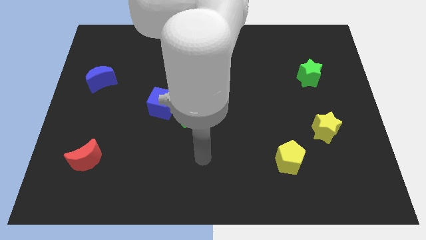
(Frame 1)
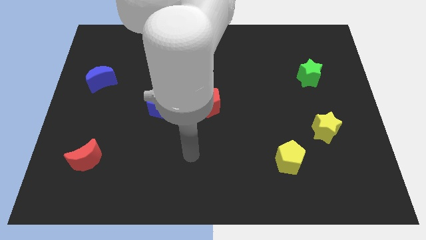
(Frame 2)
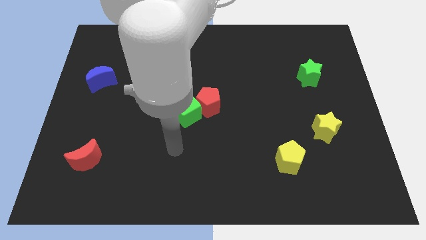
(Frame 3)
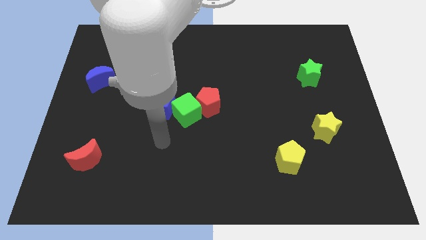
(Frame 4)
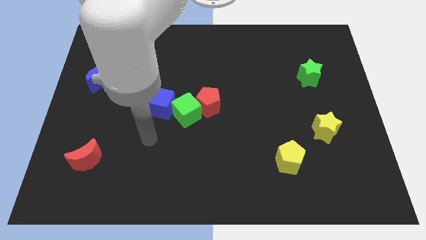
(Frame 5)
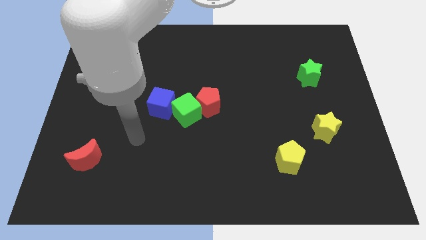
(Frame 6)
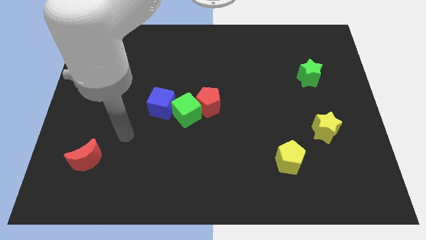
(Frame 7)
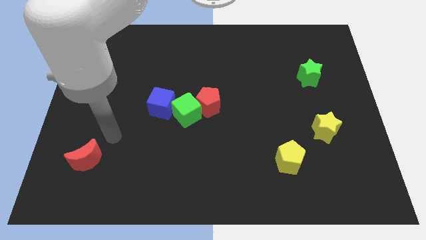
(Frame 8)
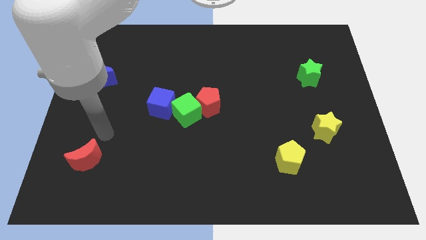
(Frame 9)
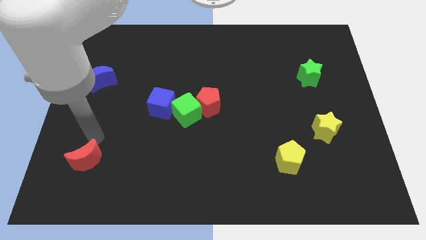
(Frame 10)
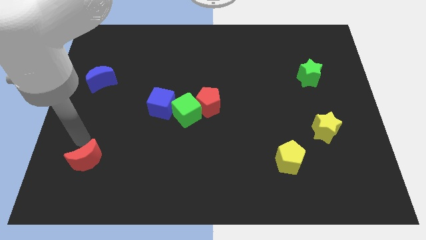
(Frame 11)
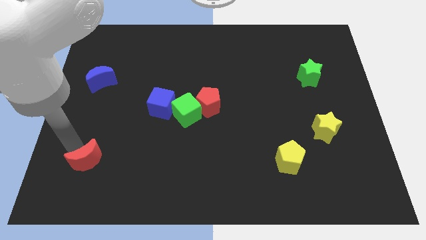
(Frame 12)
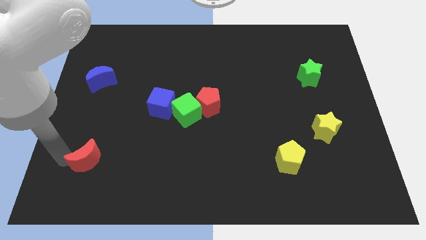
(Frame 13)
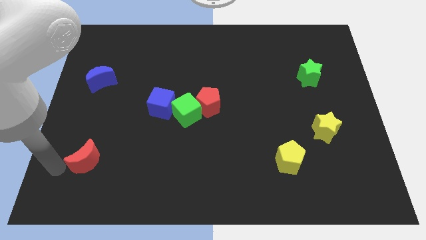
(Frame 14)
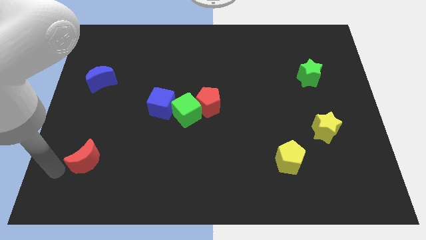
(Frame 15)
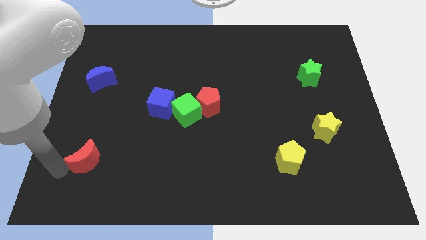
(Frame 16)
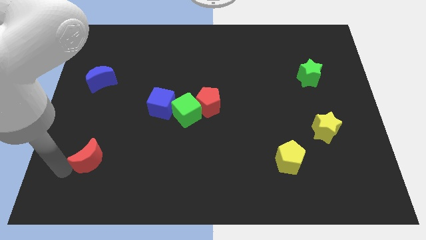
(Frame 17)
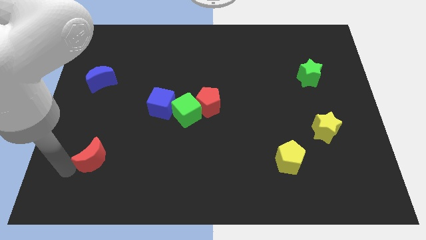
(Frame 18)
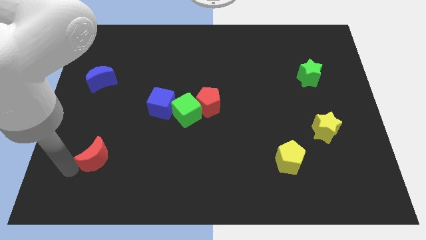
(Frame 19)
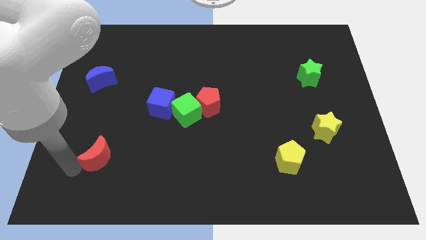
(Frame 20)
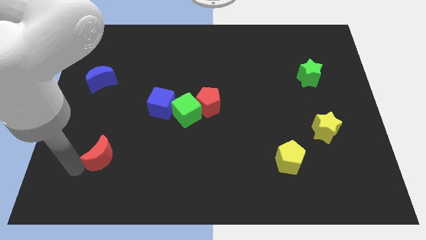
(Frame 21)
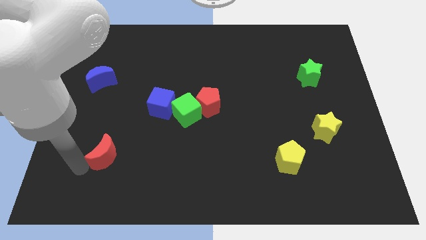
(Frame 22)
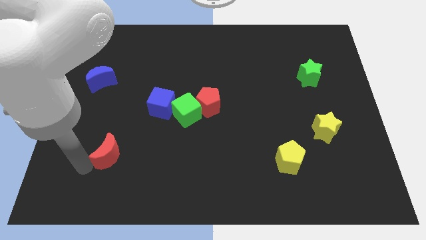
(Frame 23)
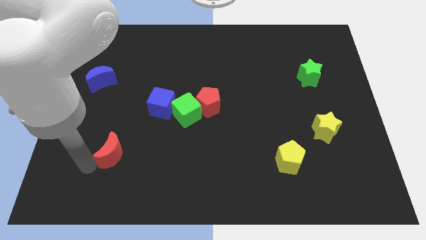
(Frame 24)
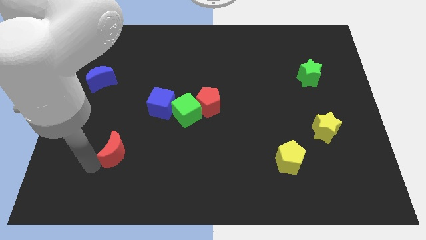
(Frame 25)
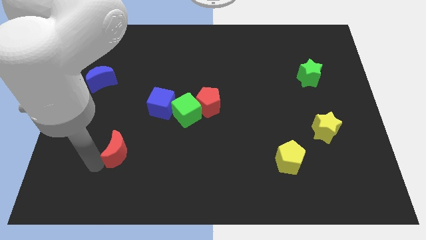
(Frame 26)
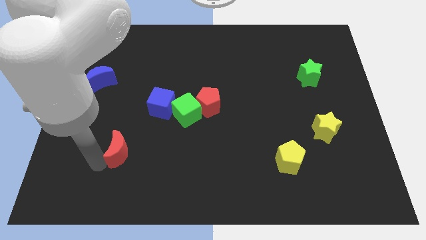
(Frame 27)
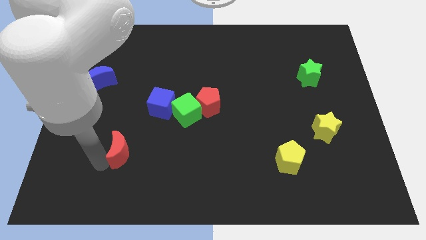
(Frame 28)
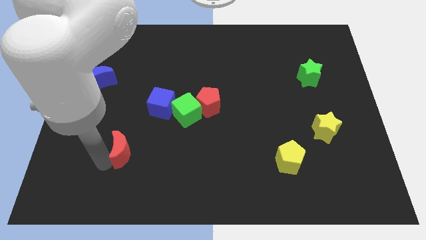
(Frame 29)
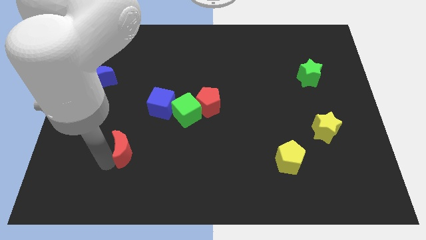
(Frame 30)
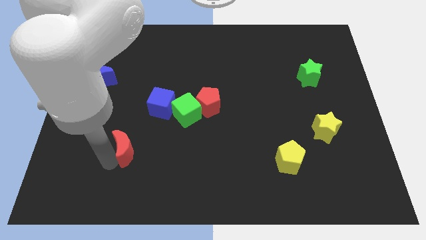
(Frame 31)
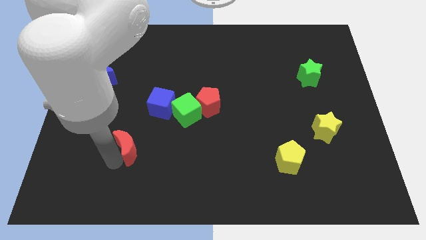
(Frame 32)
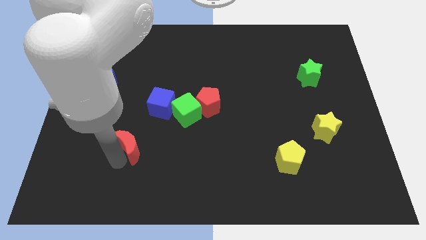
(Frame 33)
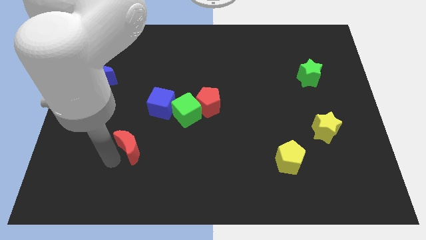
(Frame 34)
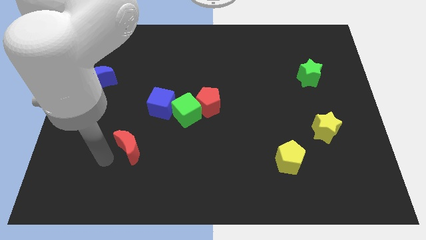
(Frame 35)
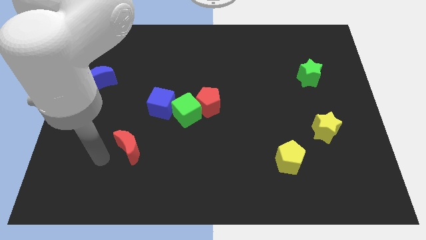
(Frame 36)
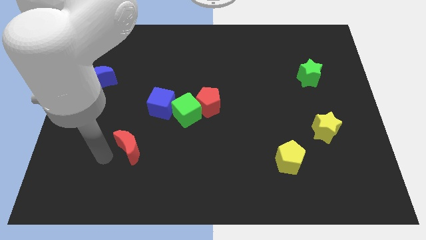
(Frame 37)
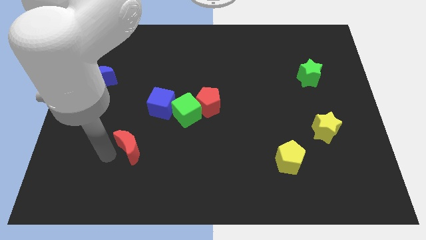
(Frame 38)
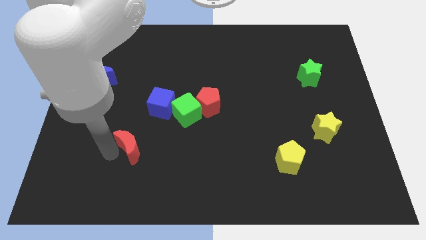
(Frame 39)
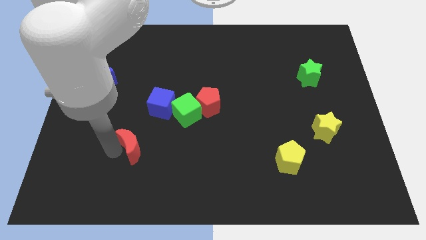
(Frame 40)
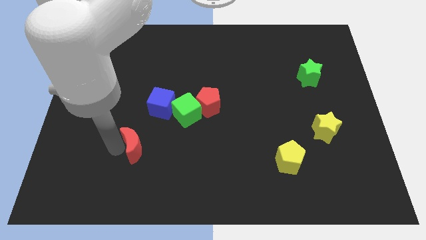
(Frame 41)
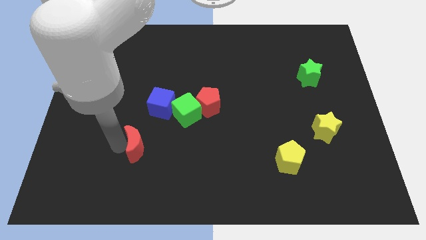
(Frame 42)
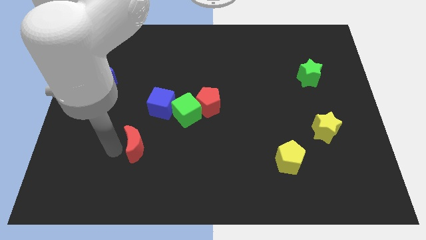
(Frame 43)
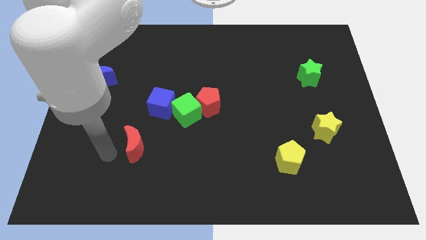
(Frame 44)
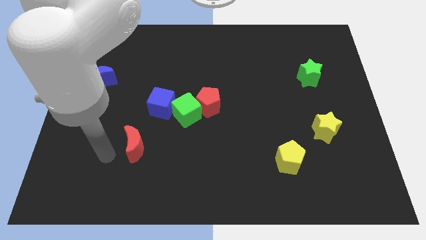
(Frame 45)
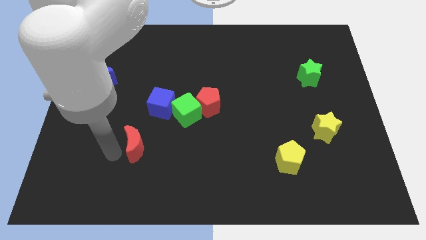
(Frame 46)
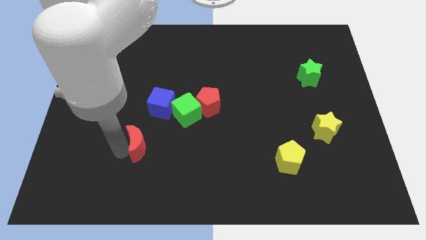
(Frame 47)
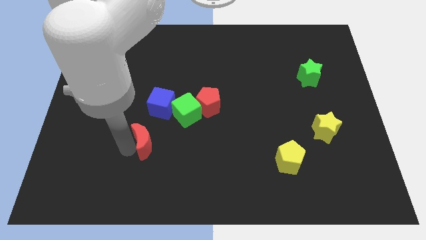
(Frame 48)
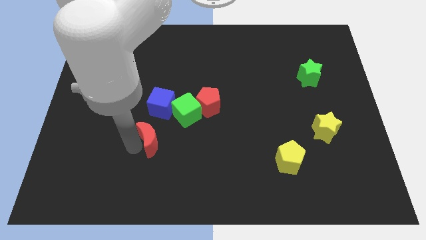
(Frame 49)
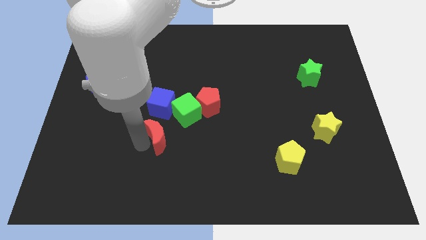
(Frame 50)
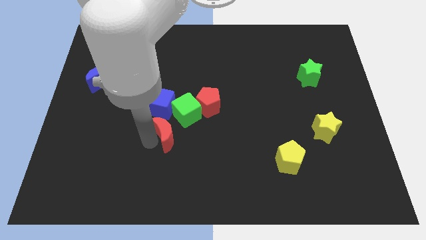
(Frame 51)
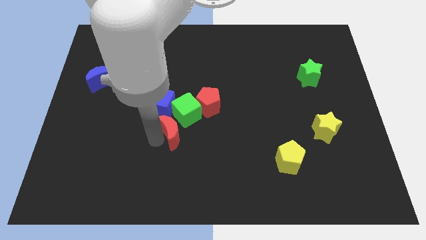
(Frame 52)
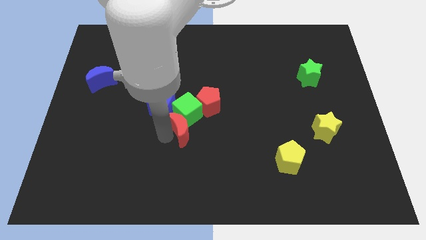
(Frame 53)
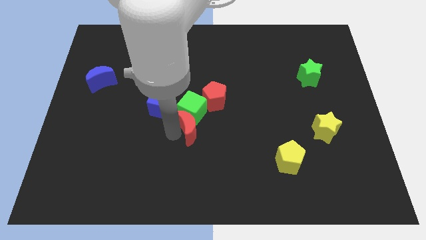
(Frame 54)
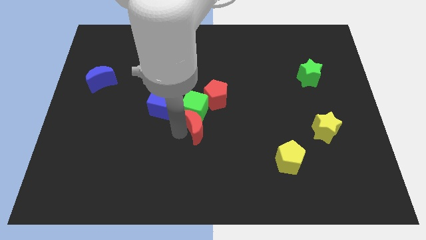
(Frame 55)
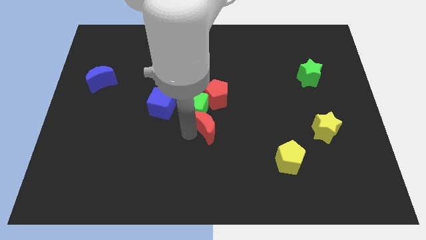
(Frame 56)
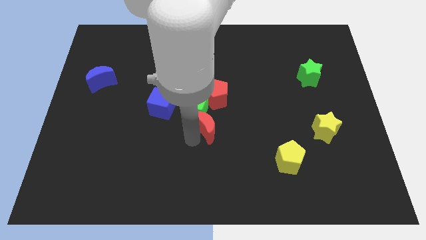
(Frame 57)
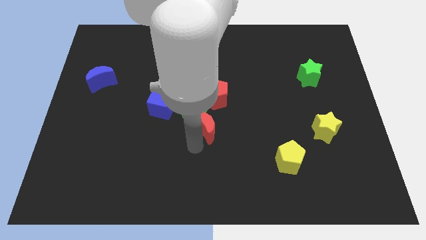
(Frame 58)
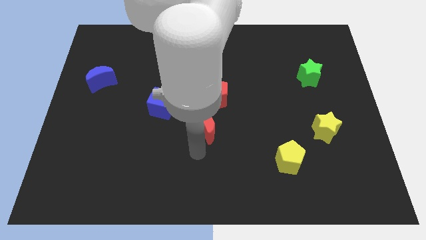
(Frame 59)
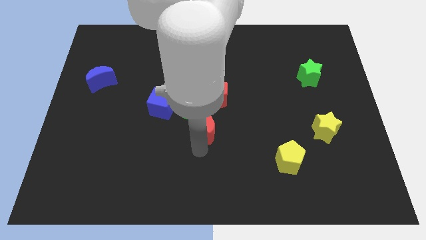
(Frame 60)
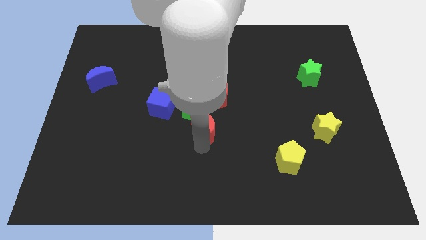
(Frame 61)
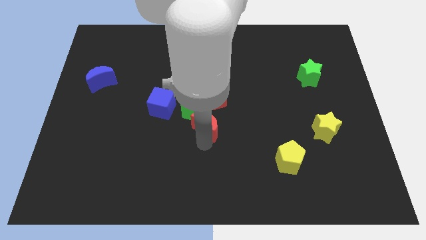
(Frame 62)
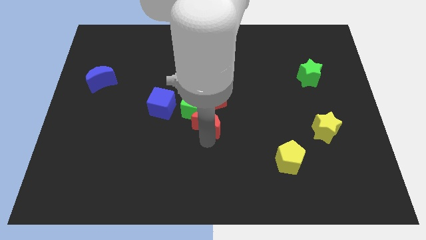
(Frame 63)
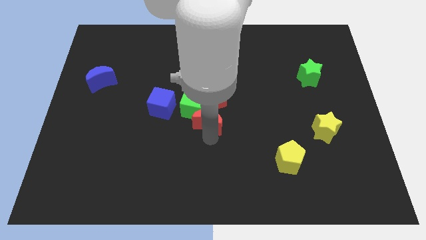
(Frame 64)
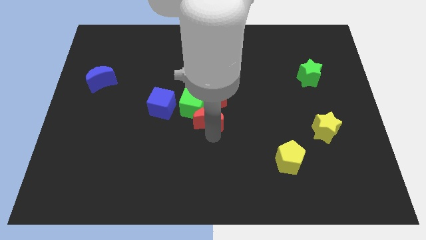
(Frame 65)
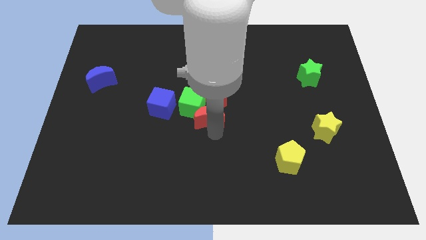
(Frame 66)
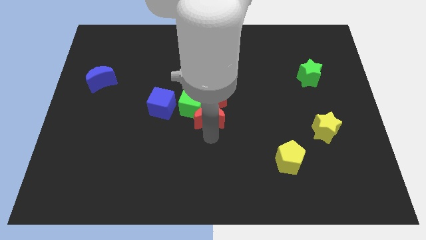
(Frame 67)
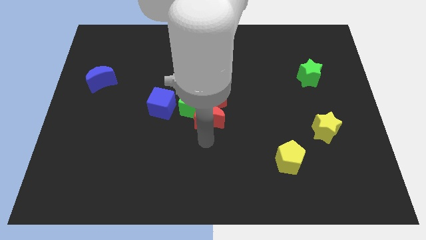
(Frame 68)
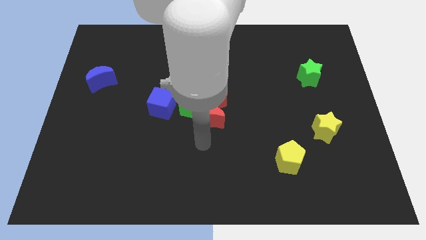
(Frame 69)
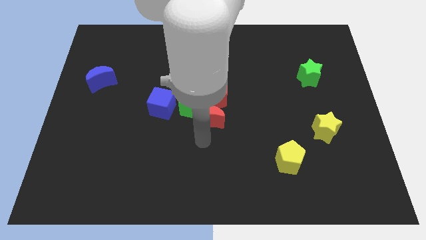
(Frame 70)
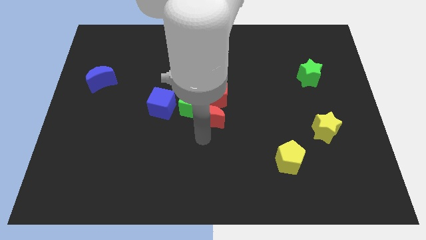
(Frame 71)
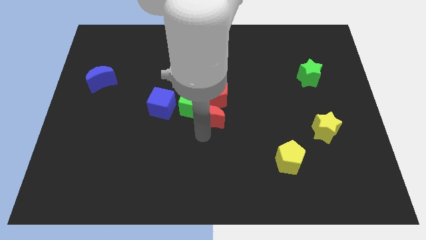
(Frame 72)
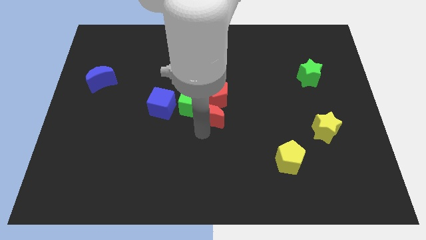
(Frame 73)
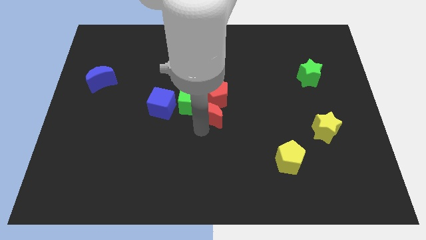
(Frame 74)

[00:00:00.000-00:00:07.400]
push the red moon to the red pentagon
